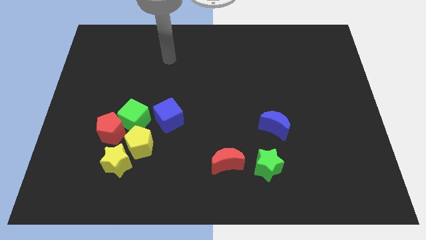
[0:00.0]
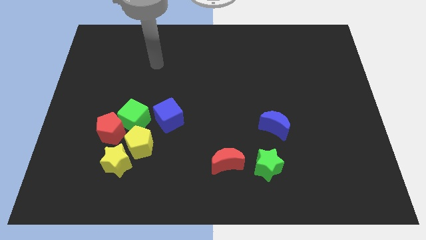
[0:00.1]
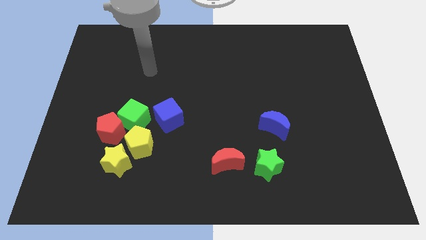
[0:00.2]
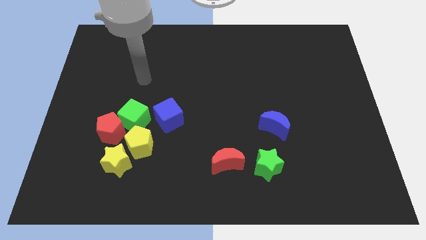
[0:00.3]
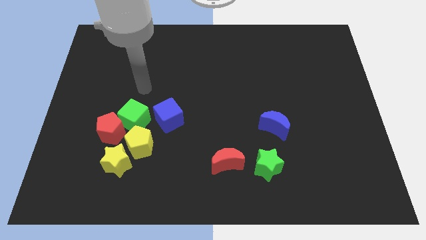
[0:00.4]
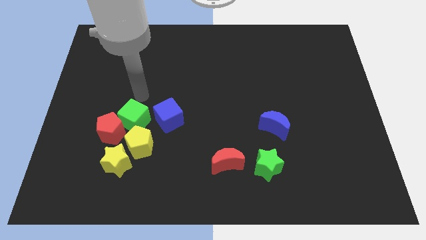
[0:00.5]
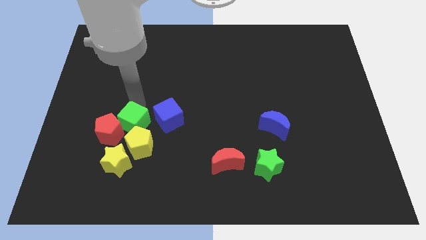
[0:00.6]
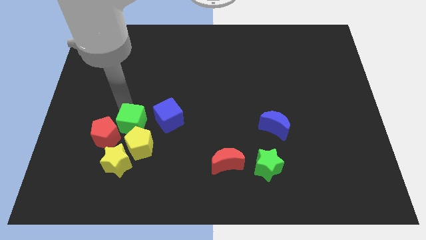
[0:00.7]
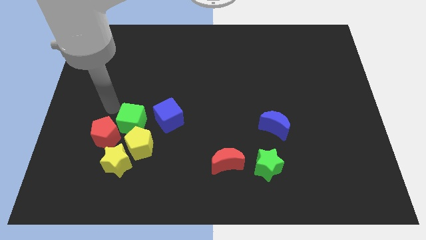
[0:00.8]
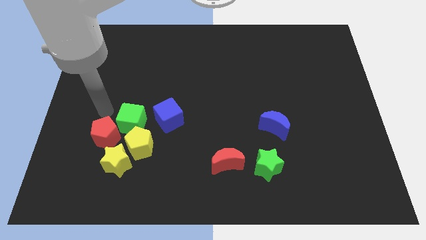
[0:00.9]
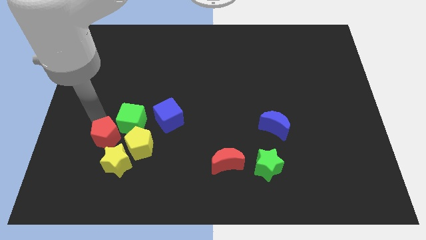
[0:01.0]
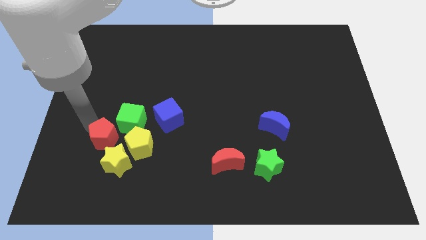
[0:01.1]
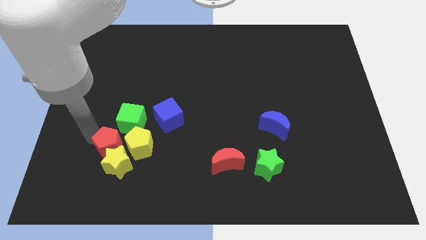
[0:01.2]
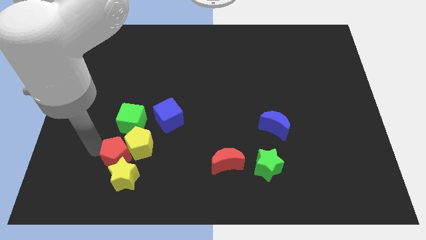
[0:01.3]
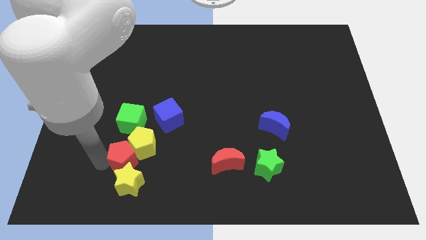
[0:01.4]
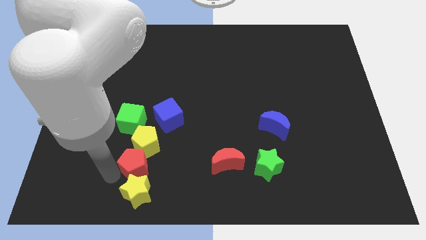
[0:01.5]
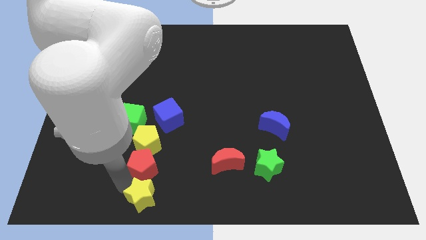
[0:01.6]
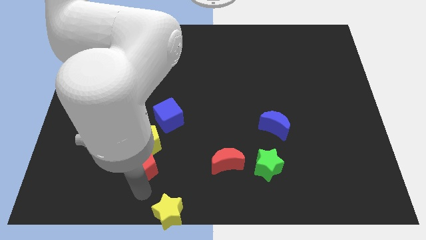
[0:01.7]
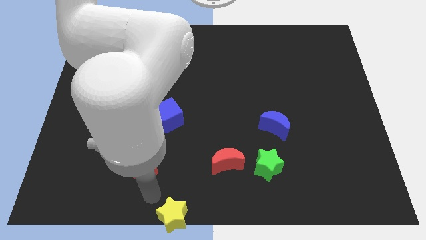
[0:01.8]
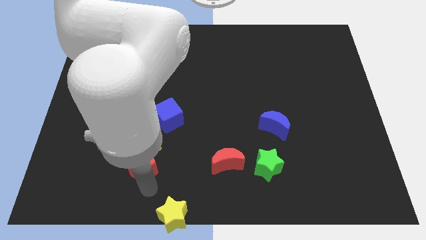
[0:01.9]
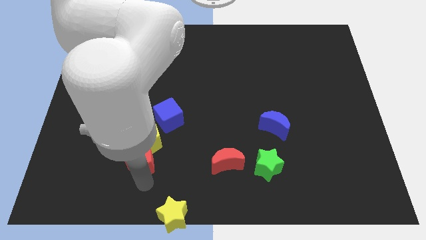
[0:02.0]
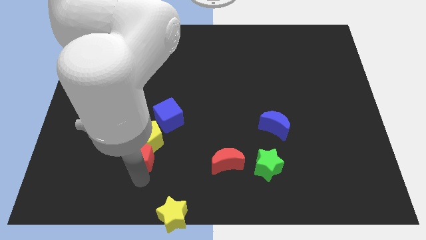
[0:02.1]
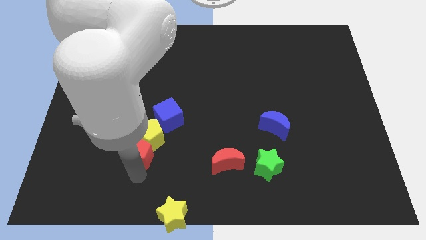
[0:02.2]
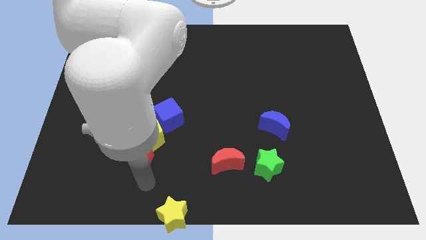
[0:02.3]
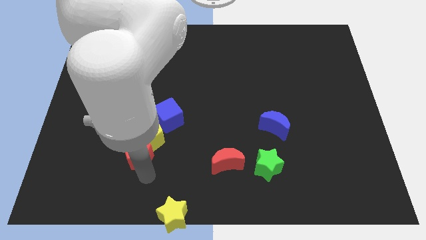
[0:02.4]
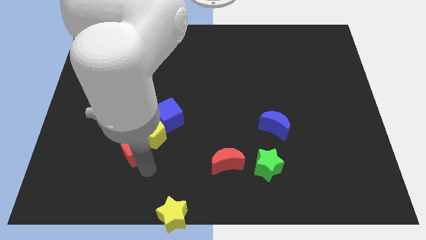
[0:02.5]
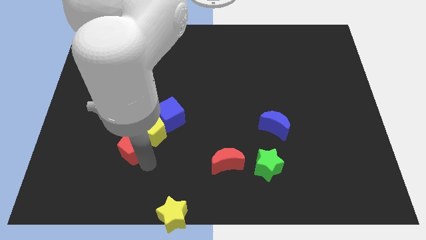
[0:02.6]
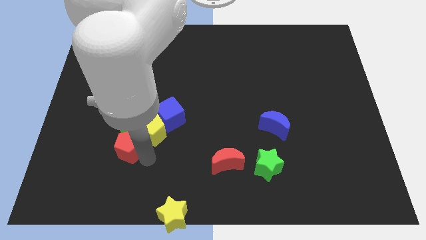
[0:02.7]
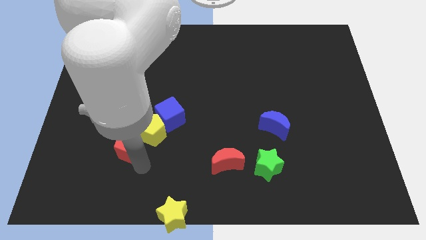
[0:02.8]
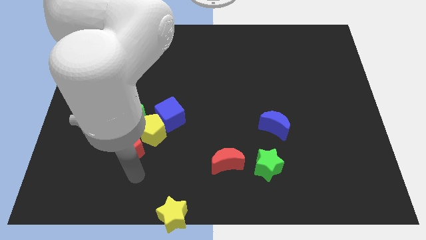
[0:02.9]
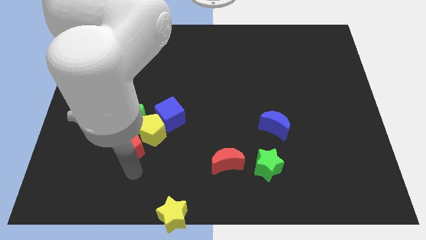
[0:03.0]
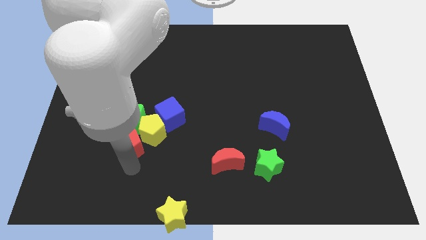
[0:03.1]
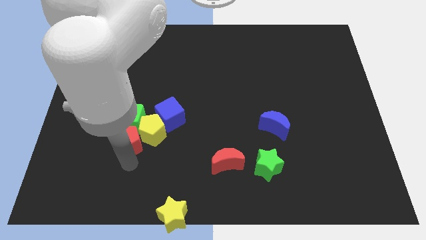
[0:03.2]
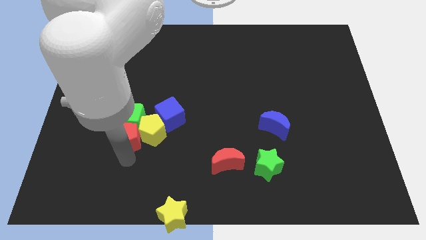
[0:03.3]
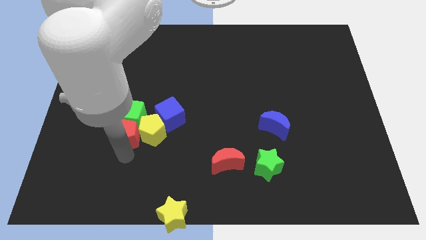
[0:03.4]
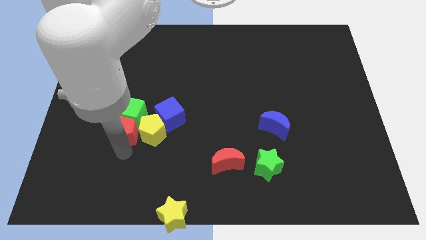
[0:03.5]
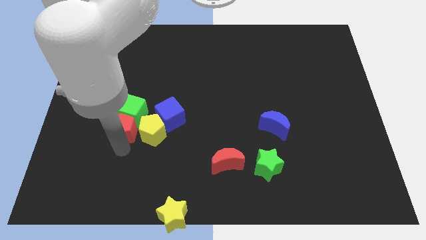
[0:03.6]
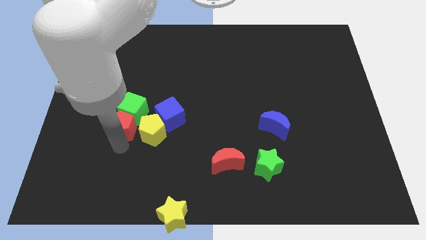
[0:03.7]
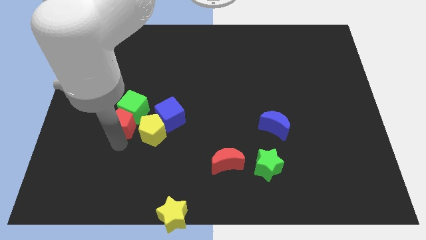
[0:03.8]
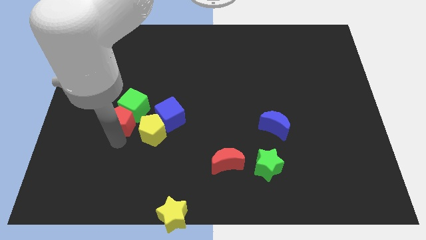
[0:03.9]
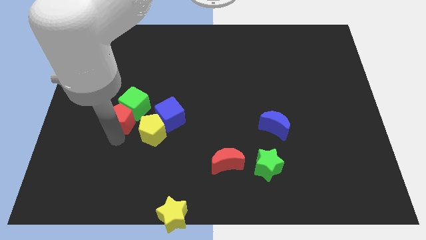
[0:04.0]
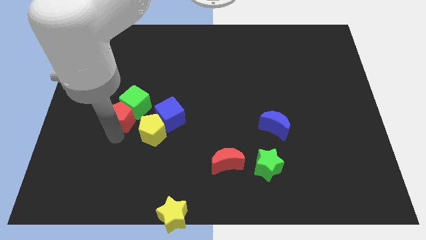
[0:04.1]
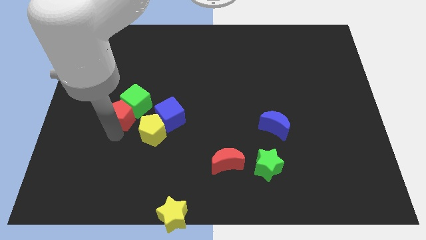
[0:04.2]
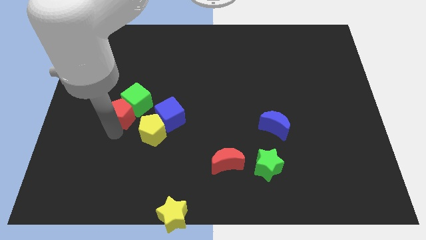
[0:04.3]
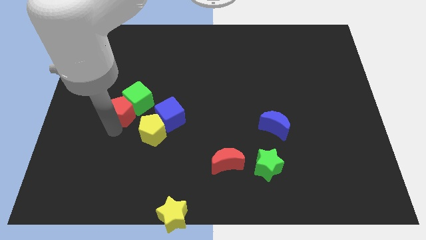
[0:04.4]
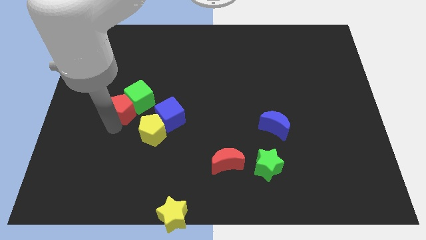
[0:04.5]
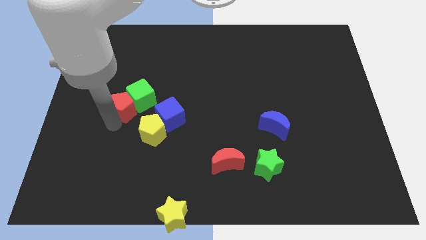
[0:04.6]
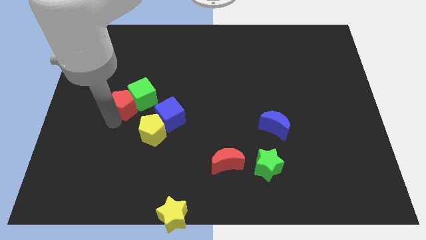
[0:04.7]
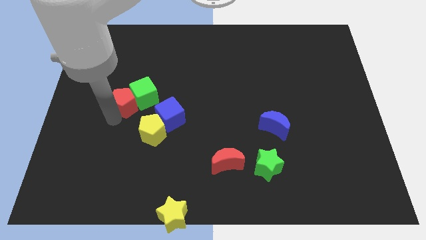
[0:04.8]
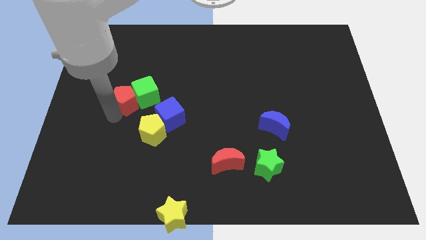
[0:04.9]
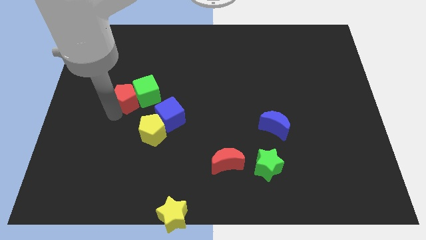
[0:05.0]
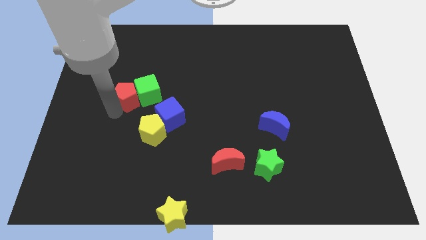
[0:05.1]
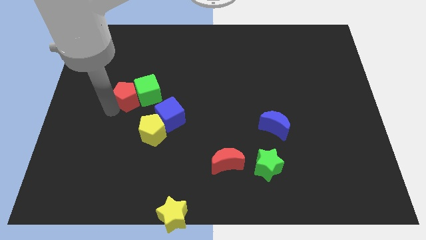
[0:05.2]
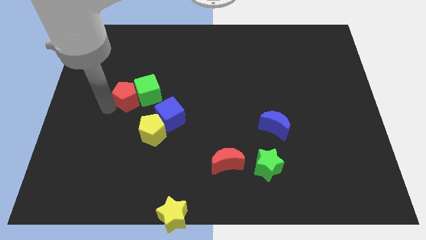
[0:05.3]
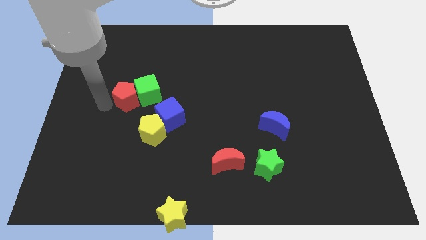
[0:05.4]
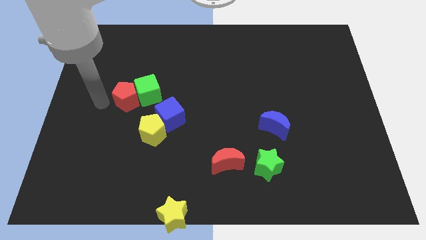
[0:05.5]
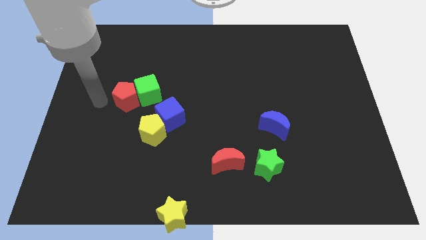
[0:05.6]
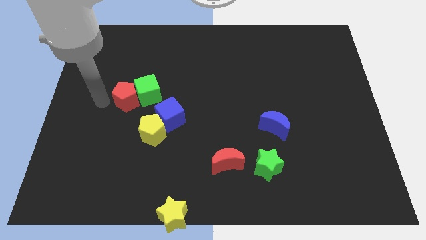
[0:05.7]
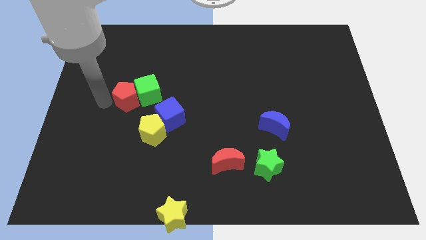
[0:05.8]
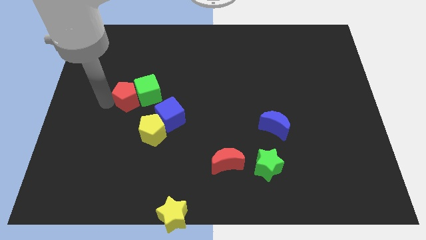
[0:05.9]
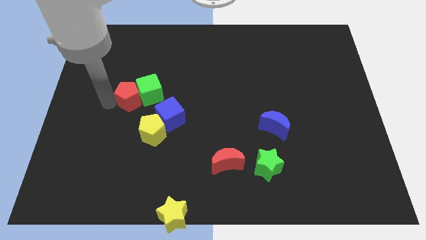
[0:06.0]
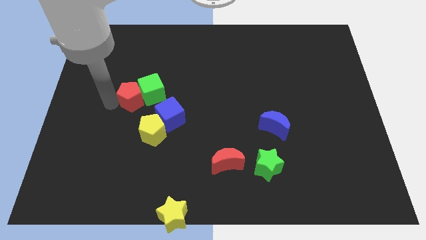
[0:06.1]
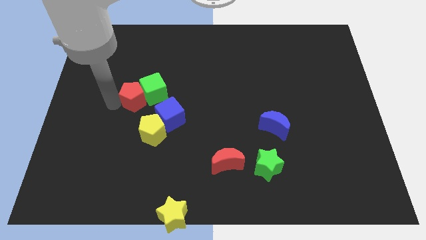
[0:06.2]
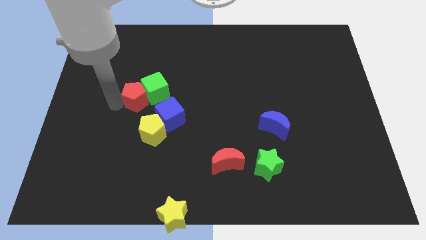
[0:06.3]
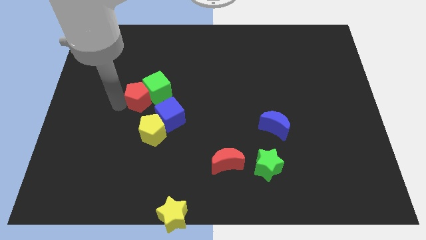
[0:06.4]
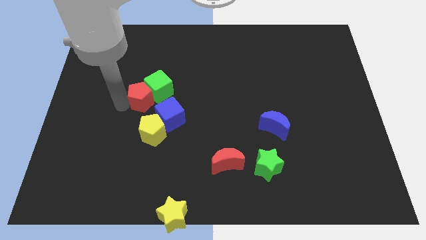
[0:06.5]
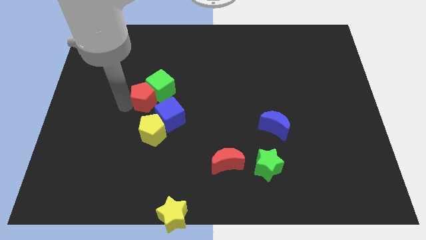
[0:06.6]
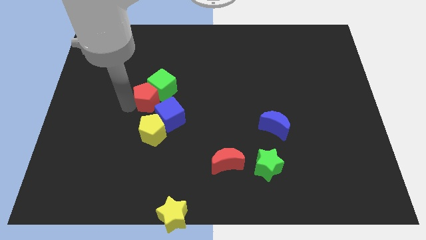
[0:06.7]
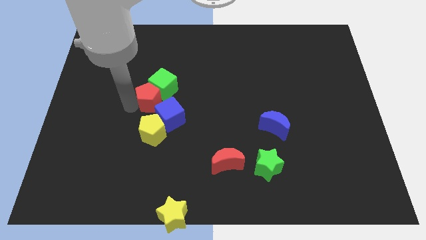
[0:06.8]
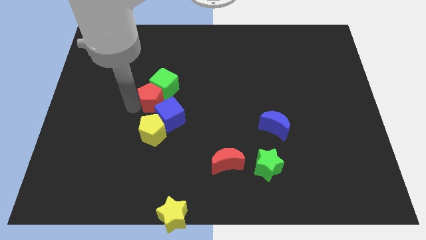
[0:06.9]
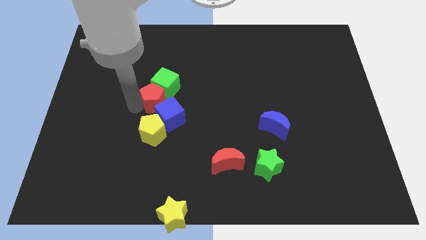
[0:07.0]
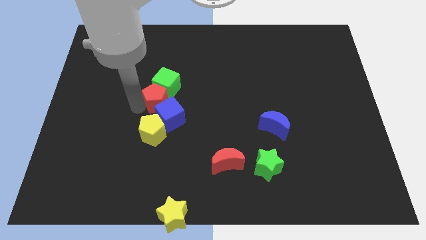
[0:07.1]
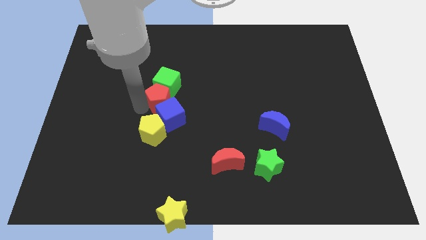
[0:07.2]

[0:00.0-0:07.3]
move the red pentagon right somewhat

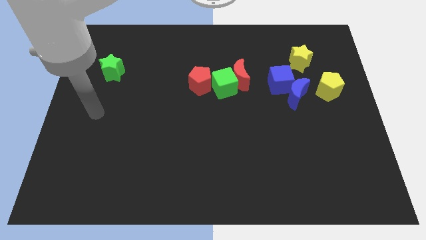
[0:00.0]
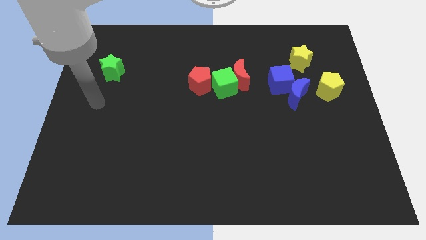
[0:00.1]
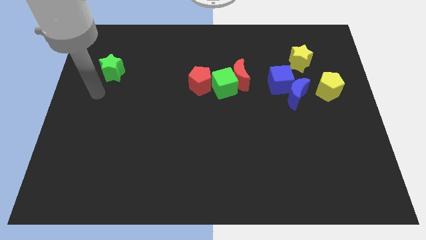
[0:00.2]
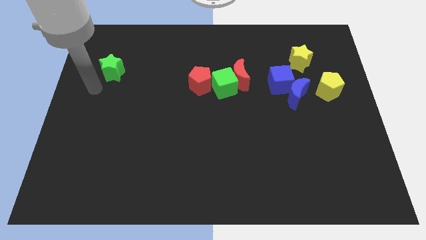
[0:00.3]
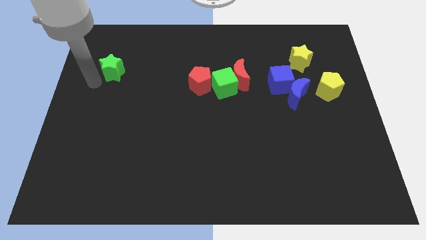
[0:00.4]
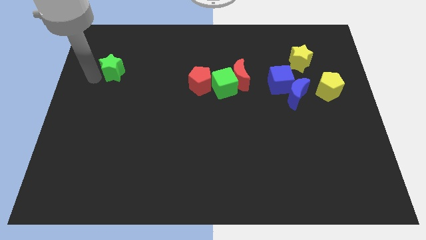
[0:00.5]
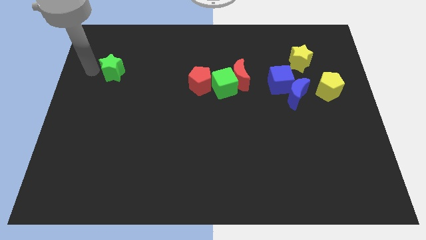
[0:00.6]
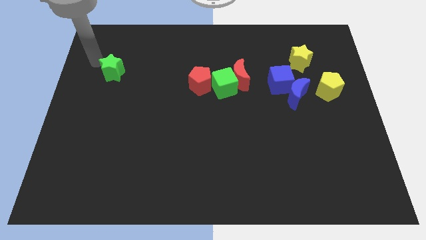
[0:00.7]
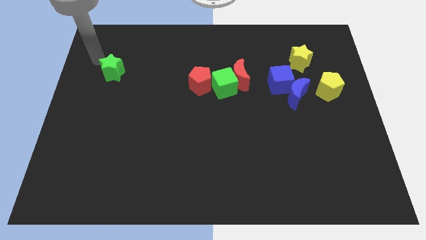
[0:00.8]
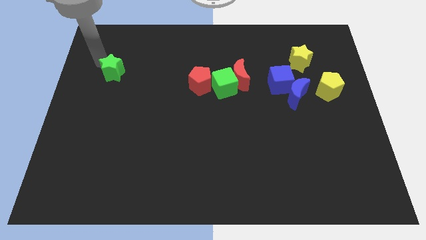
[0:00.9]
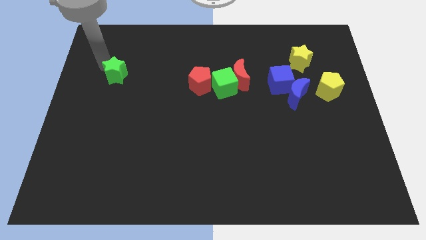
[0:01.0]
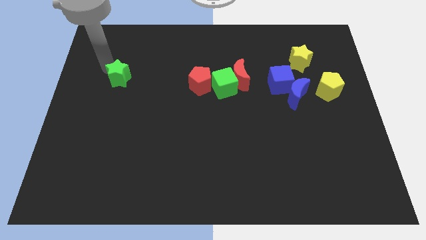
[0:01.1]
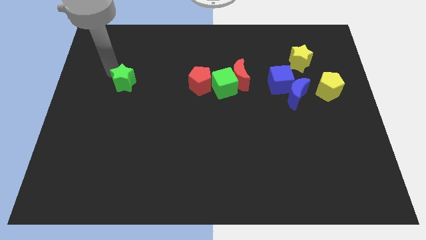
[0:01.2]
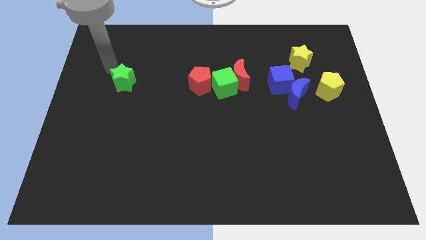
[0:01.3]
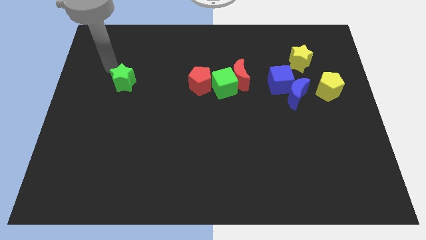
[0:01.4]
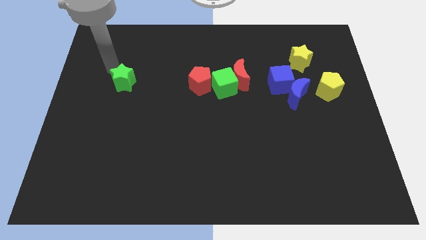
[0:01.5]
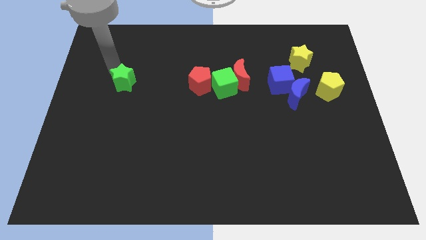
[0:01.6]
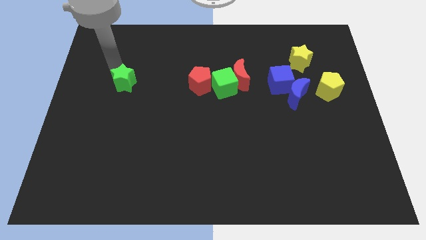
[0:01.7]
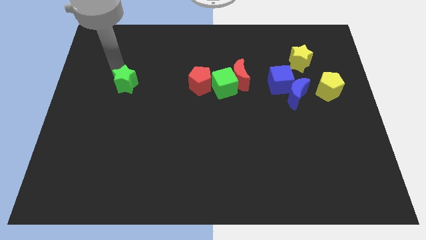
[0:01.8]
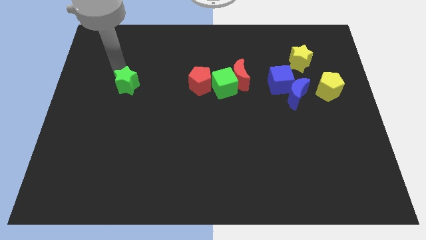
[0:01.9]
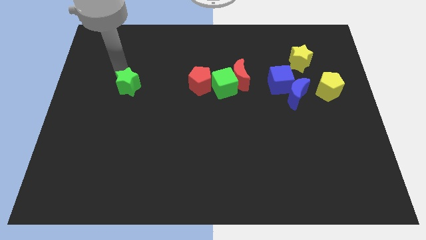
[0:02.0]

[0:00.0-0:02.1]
move the green star a bit diagonally down and to the right
